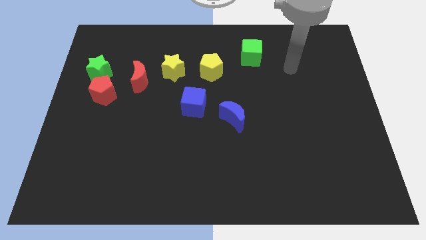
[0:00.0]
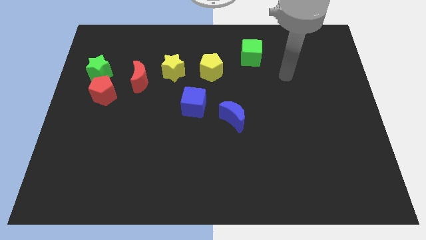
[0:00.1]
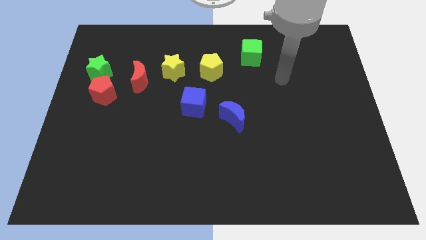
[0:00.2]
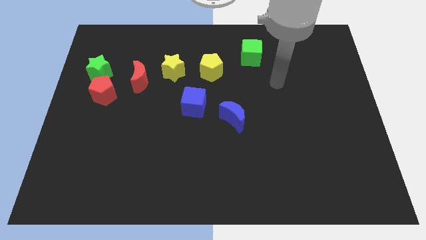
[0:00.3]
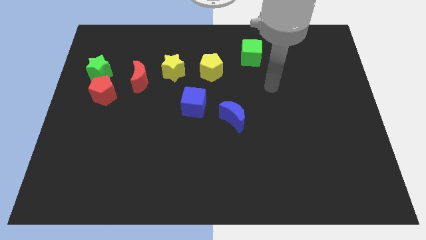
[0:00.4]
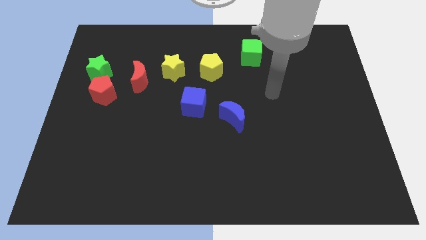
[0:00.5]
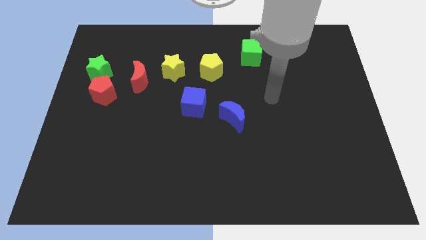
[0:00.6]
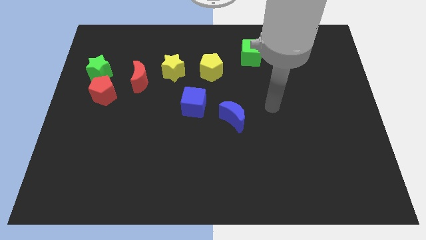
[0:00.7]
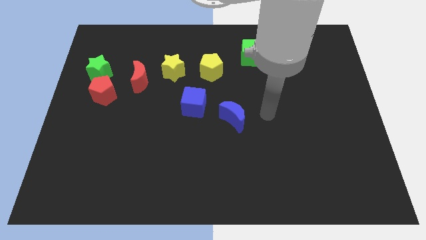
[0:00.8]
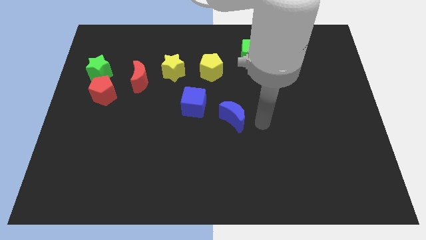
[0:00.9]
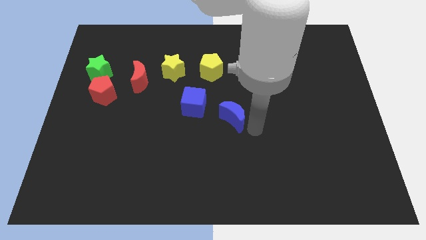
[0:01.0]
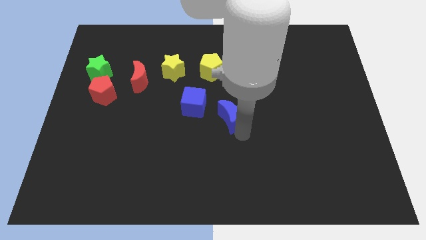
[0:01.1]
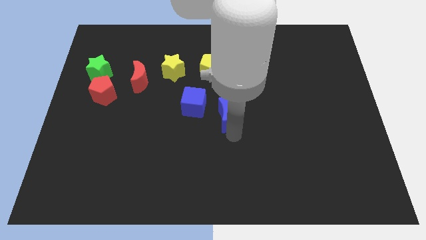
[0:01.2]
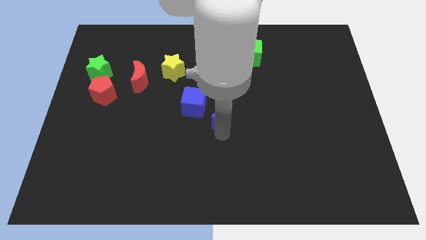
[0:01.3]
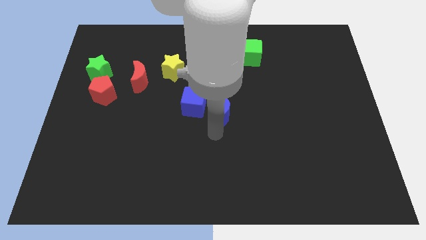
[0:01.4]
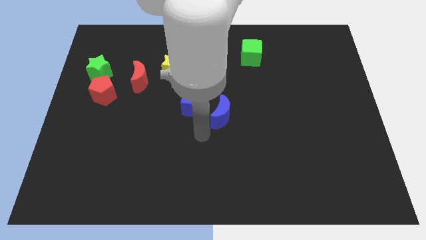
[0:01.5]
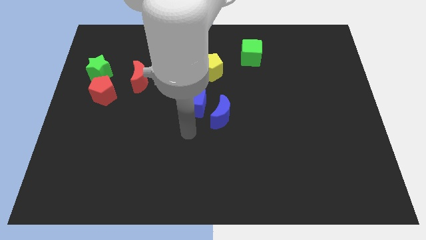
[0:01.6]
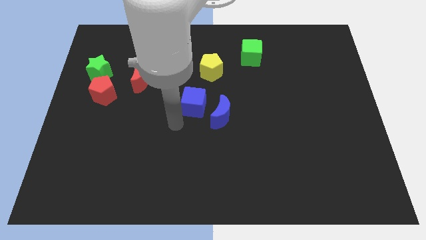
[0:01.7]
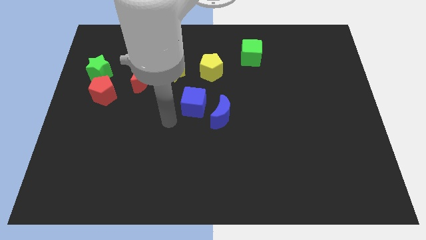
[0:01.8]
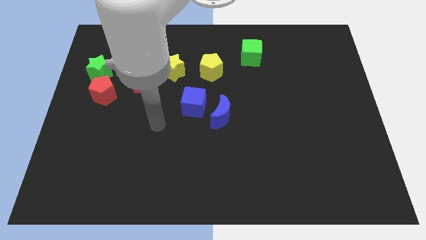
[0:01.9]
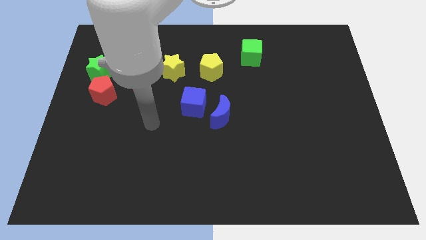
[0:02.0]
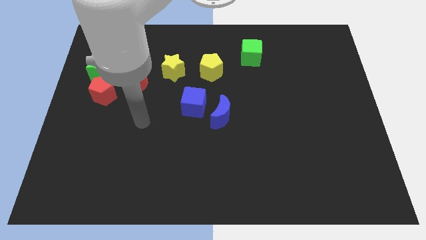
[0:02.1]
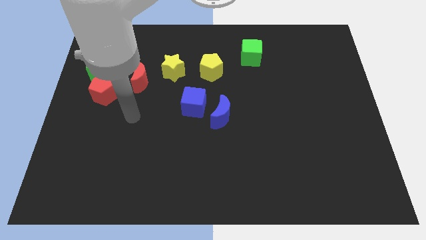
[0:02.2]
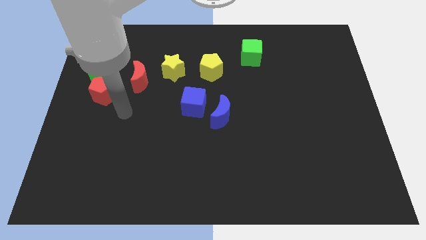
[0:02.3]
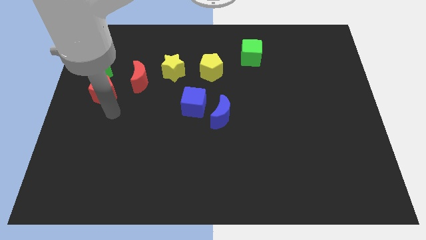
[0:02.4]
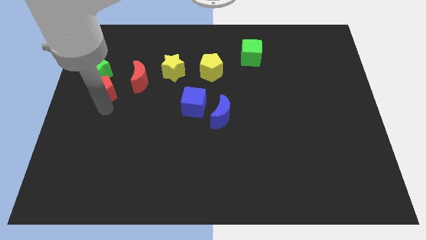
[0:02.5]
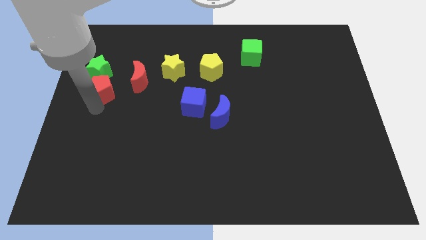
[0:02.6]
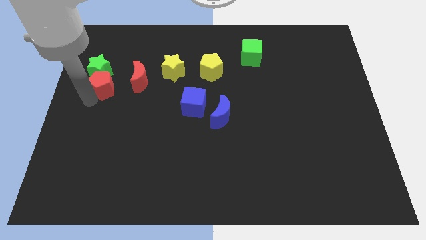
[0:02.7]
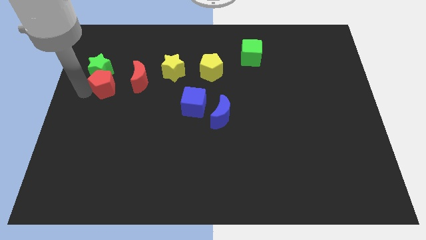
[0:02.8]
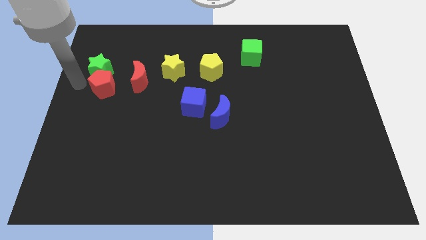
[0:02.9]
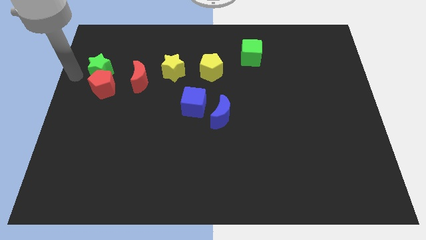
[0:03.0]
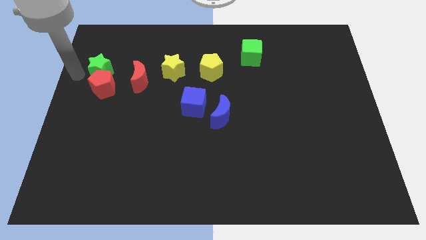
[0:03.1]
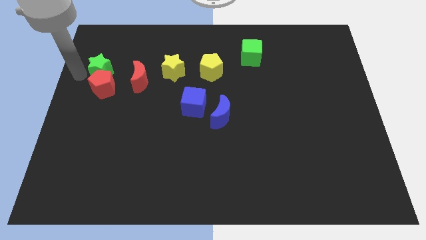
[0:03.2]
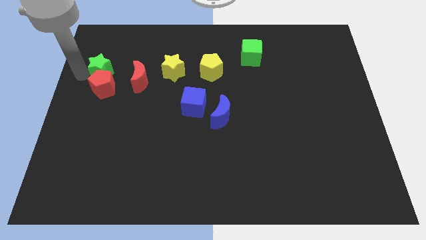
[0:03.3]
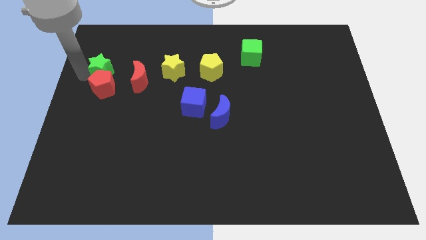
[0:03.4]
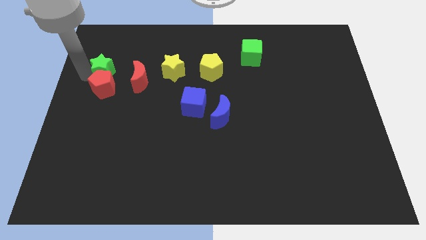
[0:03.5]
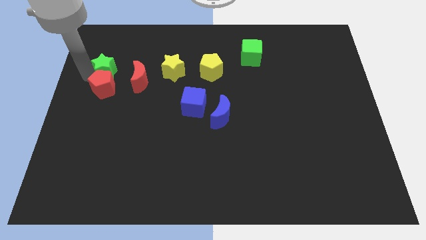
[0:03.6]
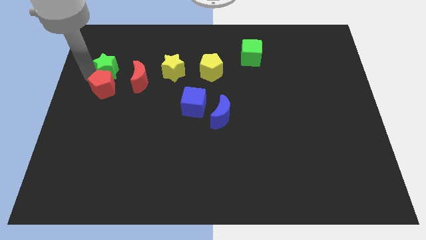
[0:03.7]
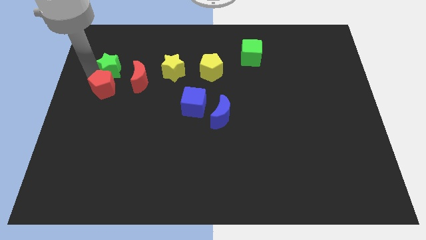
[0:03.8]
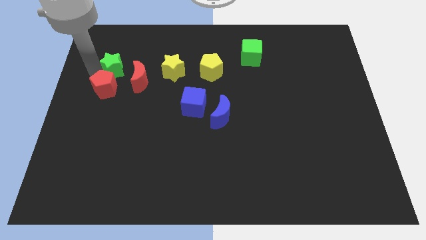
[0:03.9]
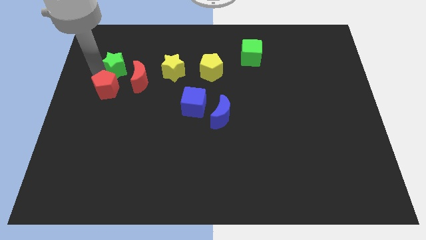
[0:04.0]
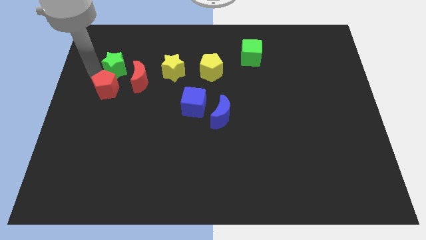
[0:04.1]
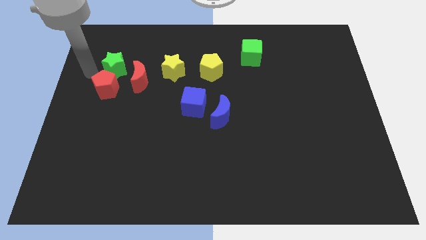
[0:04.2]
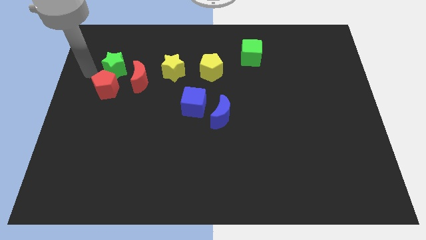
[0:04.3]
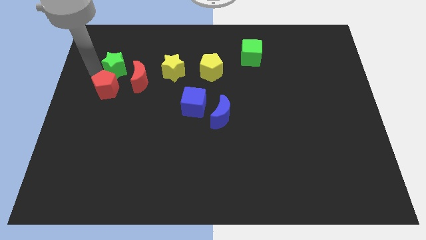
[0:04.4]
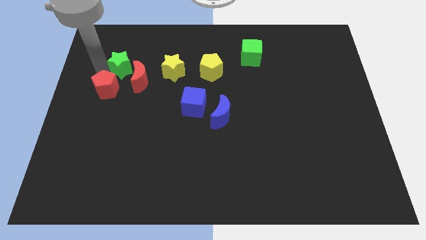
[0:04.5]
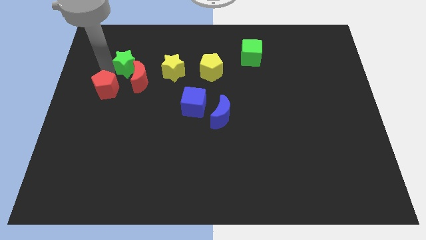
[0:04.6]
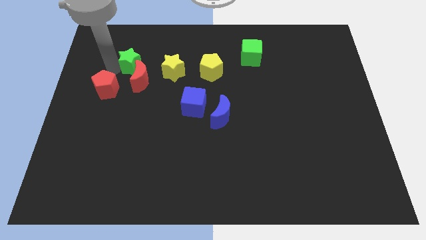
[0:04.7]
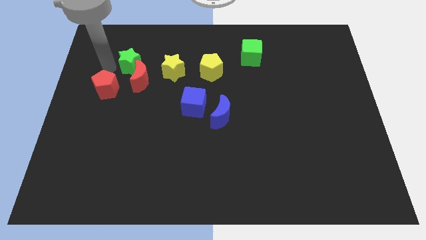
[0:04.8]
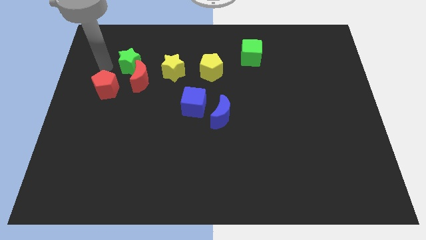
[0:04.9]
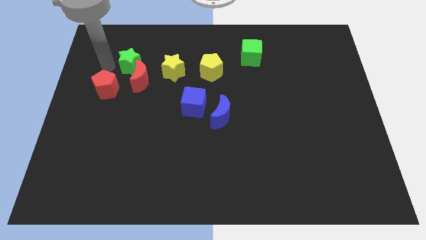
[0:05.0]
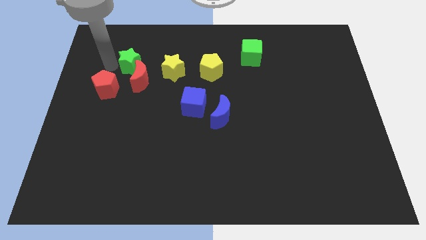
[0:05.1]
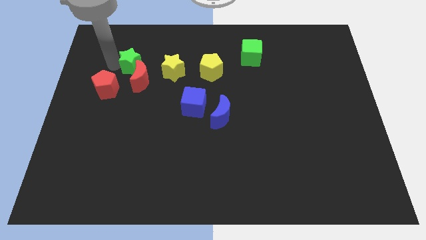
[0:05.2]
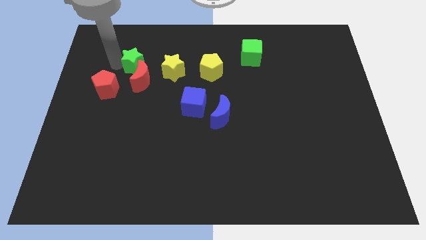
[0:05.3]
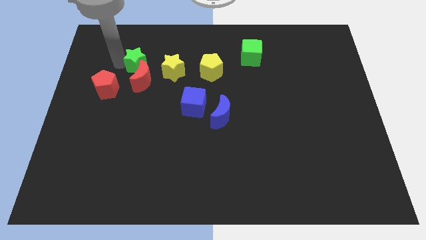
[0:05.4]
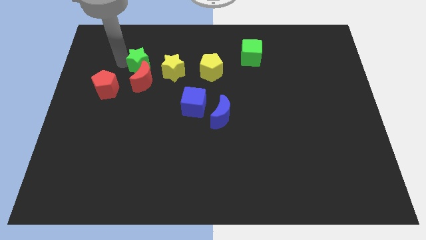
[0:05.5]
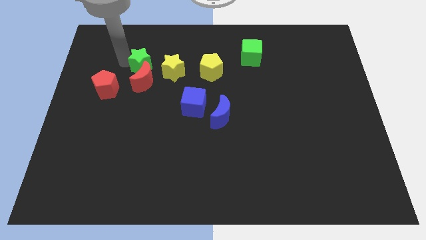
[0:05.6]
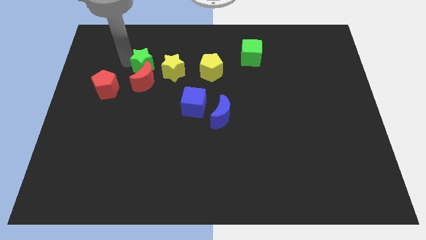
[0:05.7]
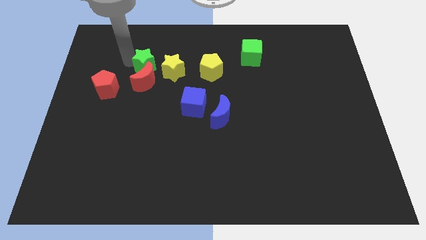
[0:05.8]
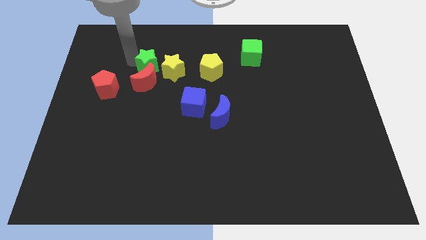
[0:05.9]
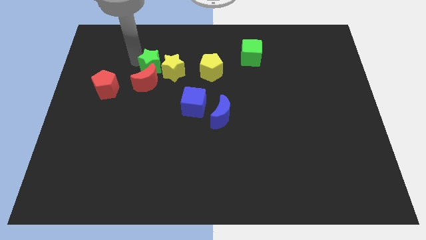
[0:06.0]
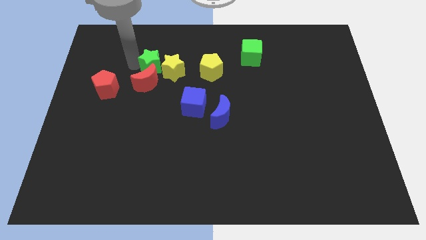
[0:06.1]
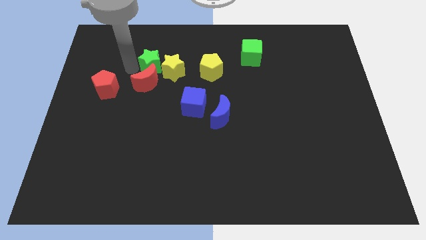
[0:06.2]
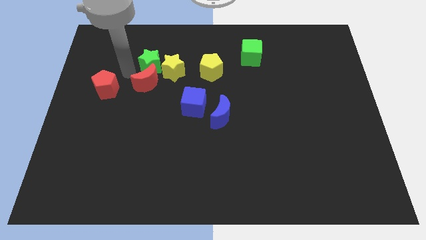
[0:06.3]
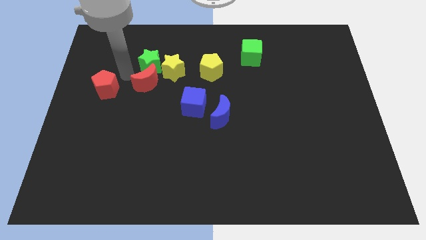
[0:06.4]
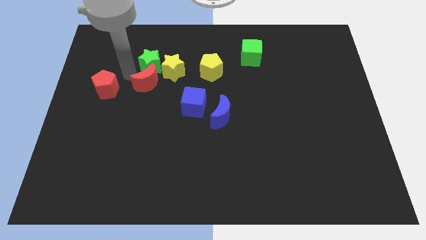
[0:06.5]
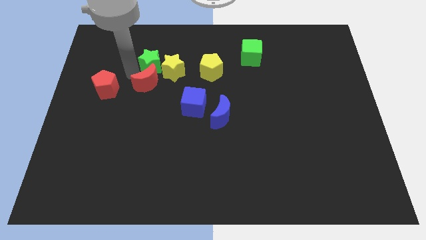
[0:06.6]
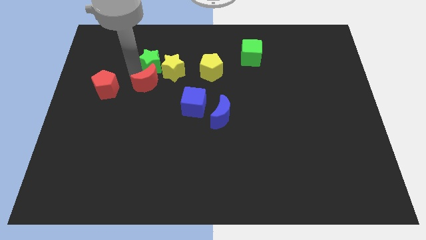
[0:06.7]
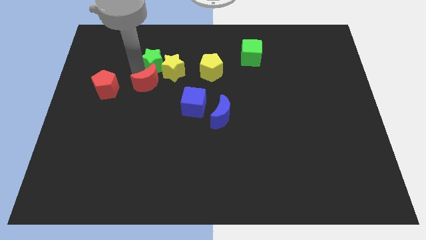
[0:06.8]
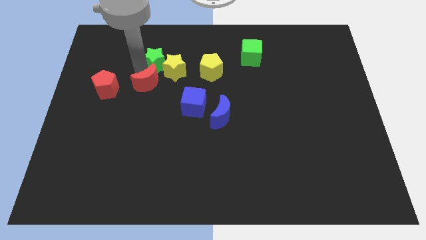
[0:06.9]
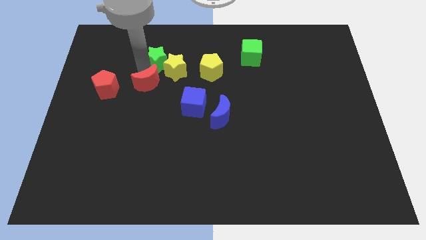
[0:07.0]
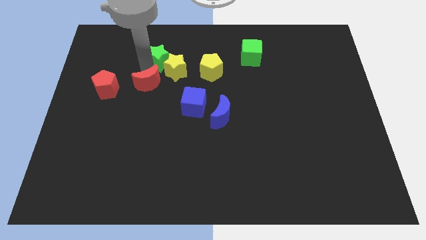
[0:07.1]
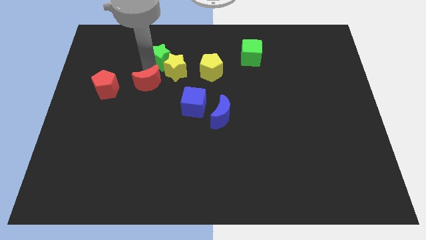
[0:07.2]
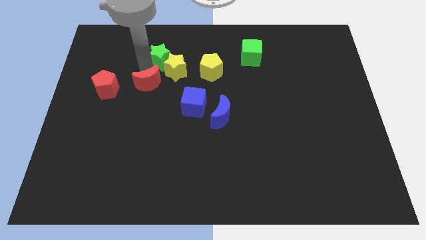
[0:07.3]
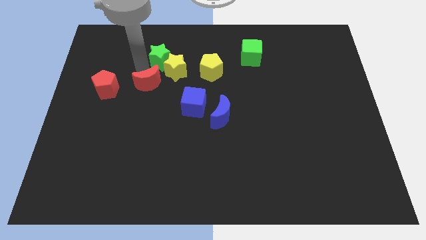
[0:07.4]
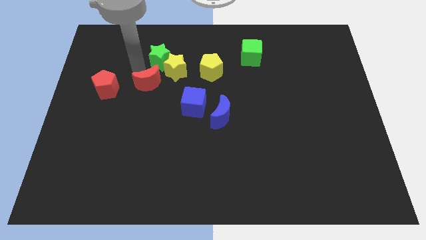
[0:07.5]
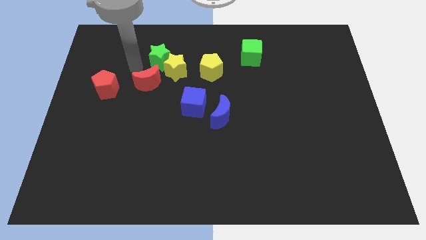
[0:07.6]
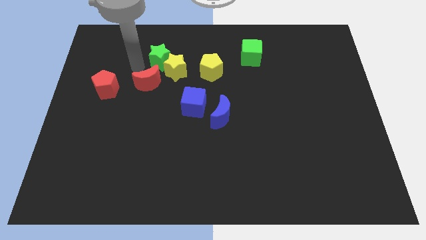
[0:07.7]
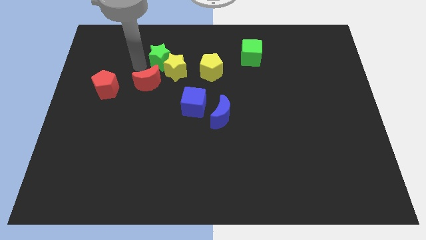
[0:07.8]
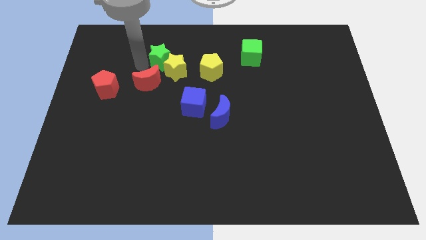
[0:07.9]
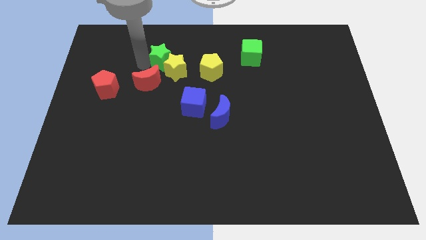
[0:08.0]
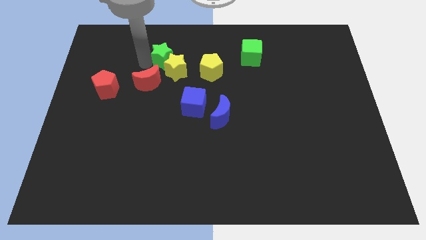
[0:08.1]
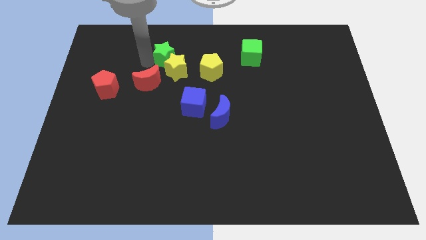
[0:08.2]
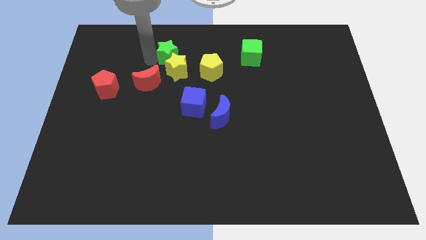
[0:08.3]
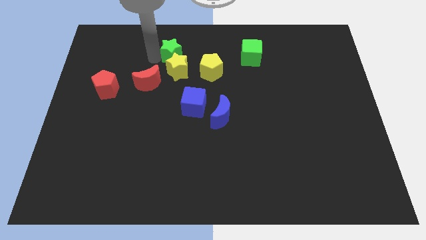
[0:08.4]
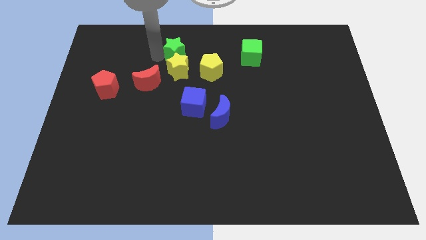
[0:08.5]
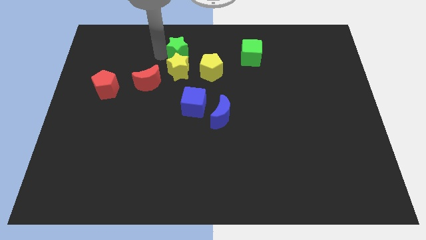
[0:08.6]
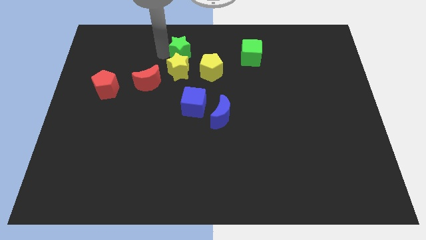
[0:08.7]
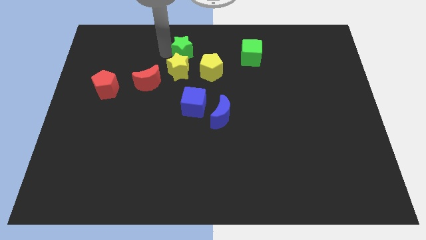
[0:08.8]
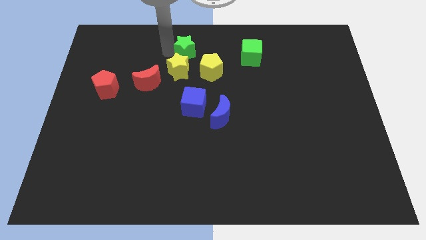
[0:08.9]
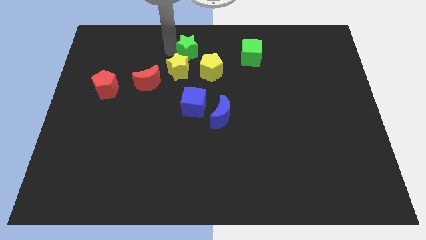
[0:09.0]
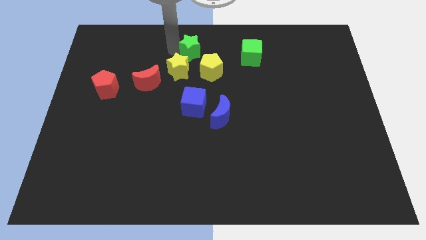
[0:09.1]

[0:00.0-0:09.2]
move the green star to the right
